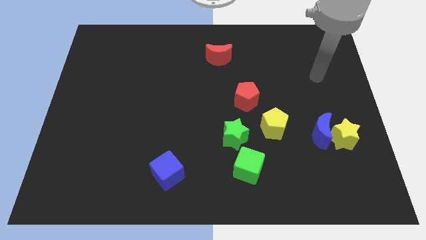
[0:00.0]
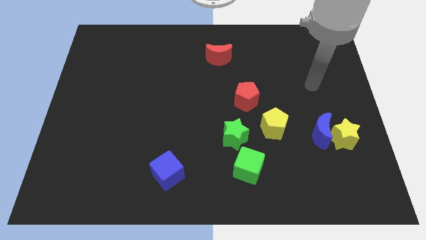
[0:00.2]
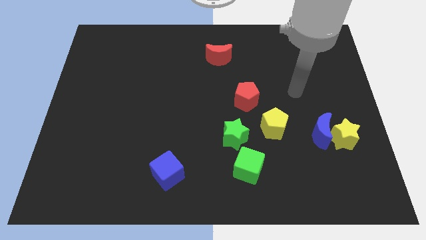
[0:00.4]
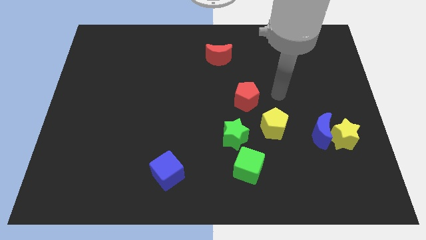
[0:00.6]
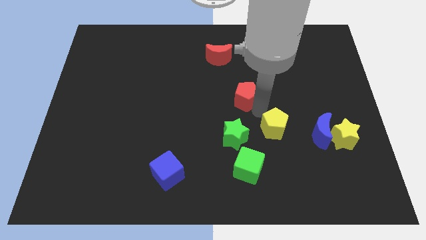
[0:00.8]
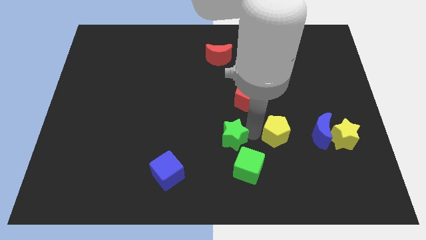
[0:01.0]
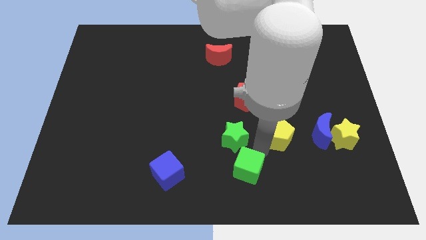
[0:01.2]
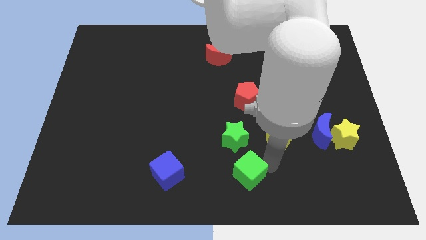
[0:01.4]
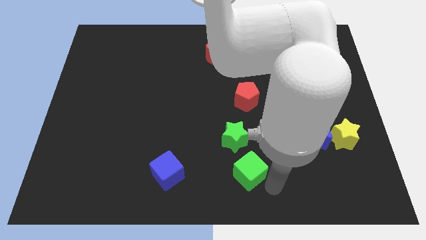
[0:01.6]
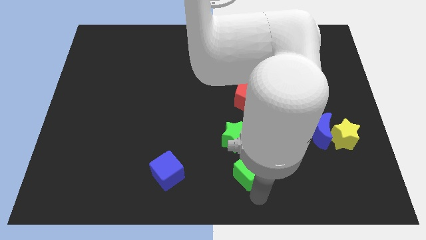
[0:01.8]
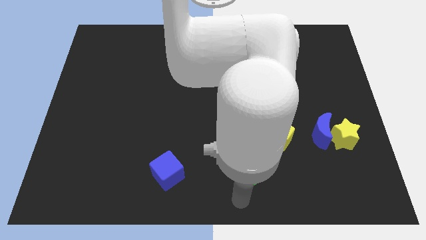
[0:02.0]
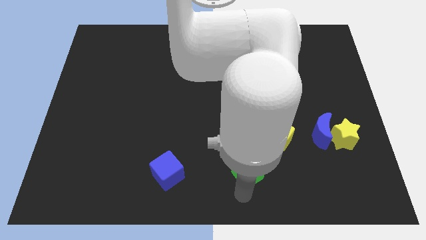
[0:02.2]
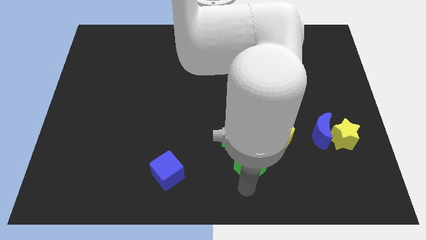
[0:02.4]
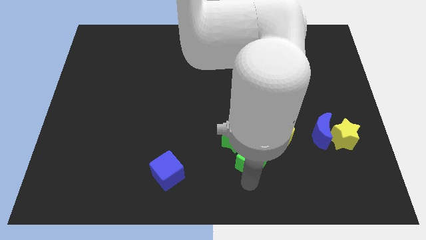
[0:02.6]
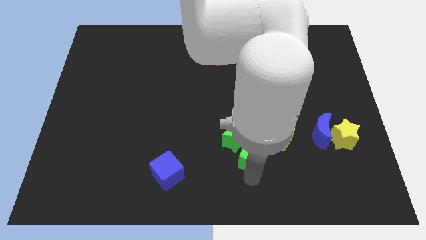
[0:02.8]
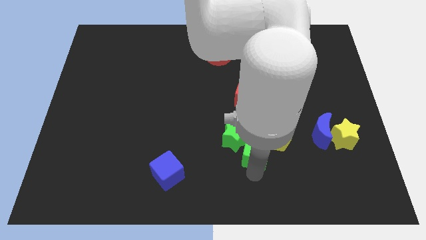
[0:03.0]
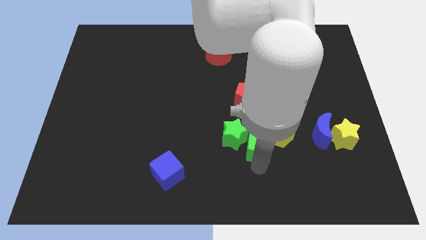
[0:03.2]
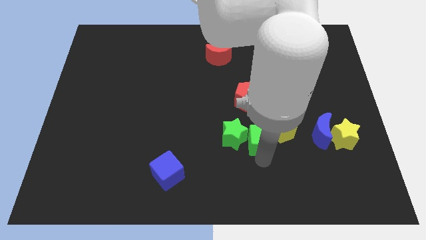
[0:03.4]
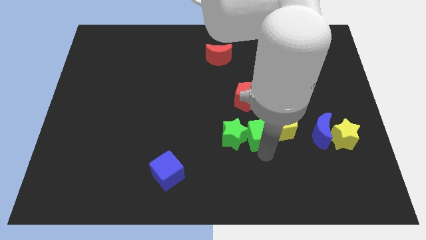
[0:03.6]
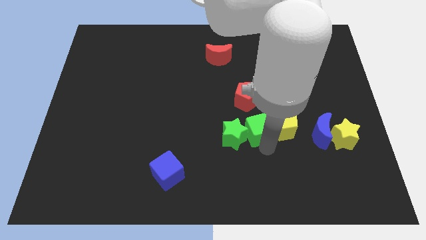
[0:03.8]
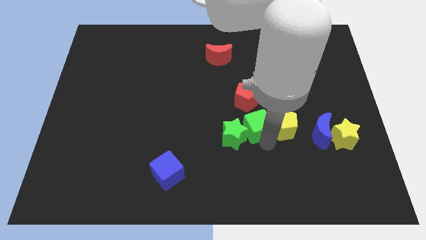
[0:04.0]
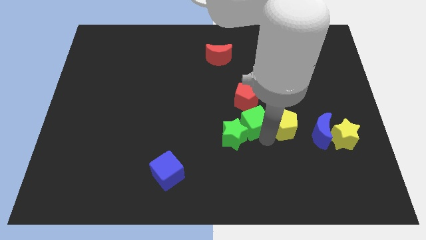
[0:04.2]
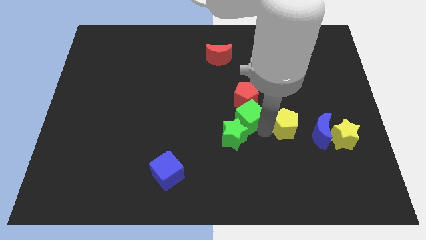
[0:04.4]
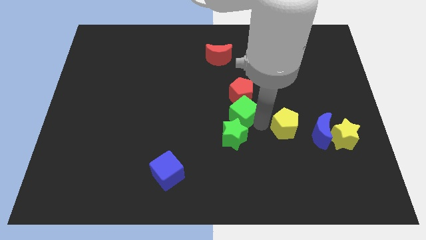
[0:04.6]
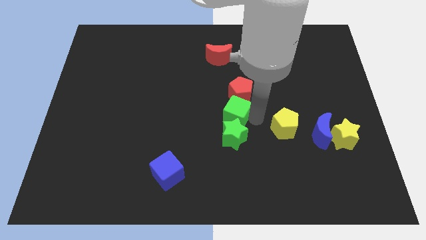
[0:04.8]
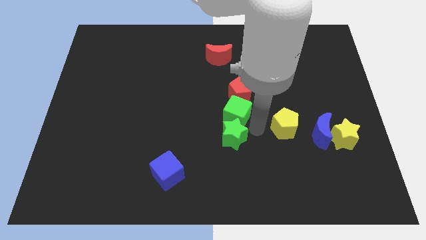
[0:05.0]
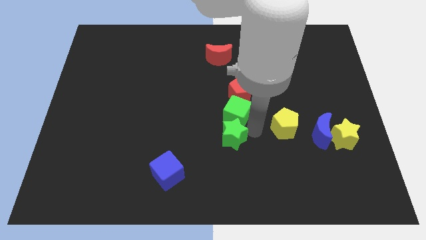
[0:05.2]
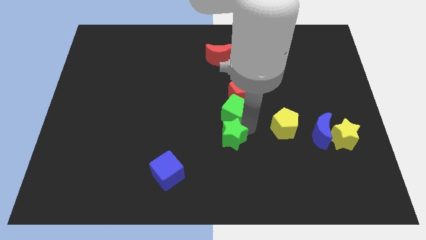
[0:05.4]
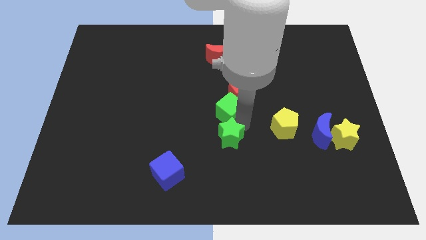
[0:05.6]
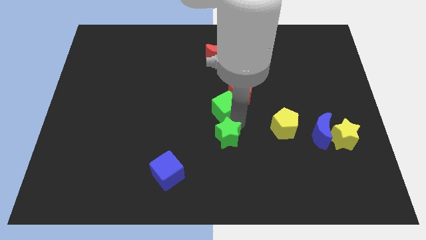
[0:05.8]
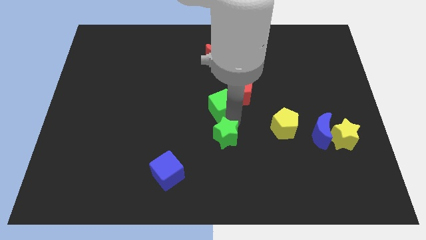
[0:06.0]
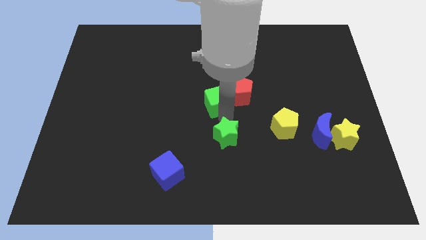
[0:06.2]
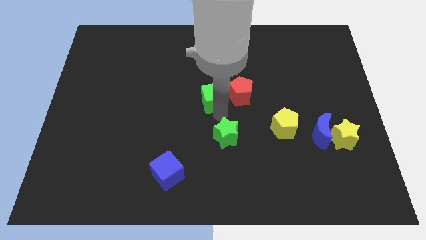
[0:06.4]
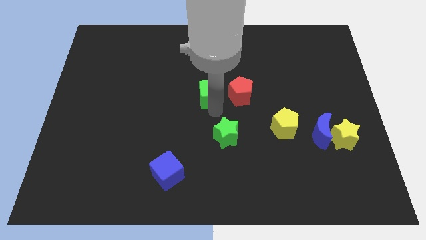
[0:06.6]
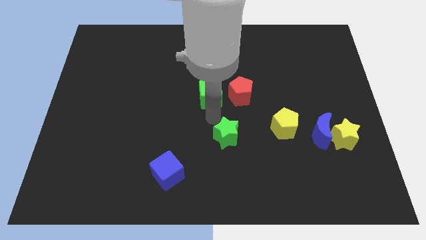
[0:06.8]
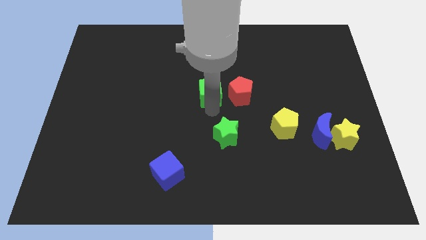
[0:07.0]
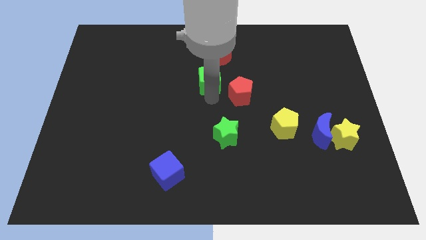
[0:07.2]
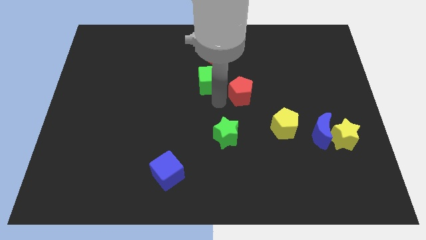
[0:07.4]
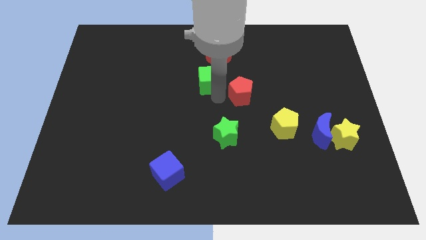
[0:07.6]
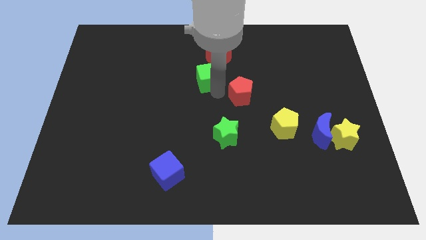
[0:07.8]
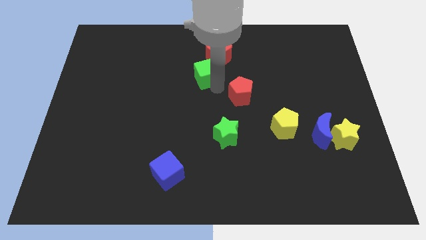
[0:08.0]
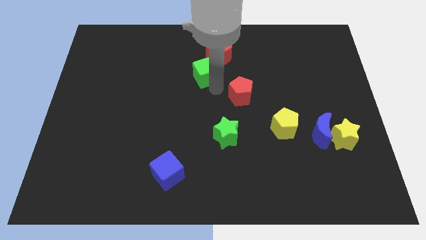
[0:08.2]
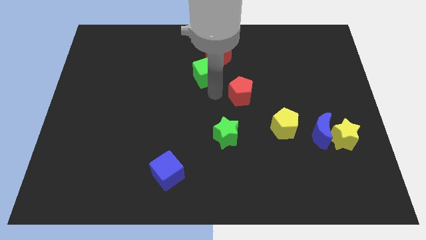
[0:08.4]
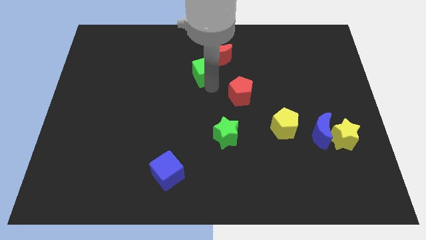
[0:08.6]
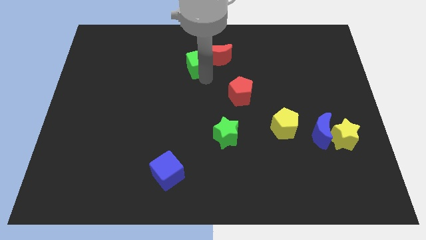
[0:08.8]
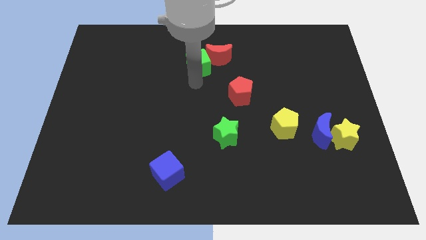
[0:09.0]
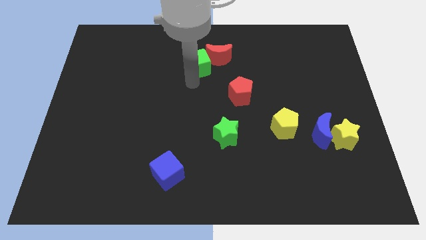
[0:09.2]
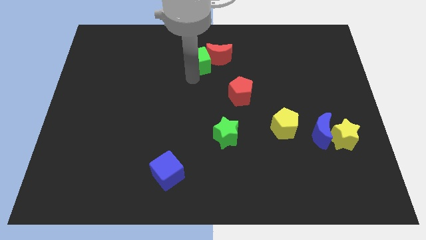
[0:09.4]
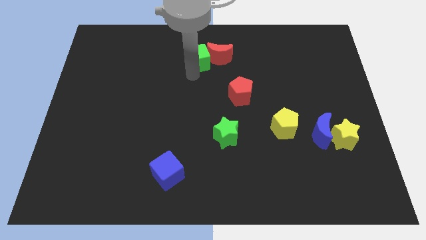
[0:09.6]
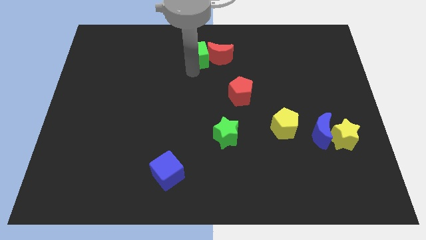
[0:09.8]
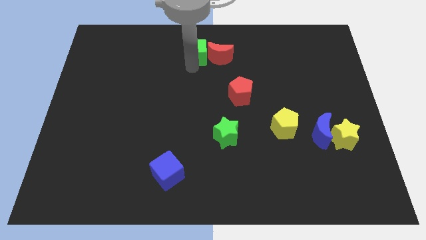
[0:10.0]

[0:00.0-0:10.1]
push the green cube to the towards your base

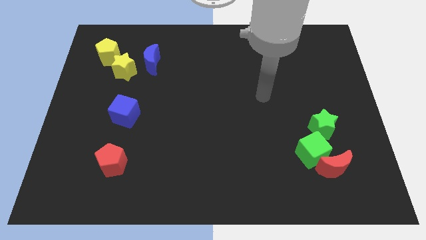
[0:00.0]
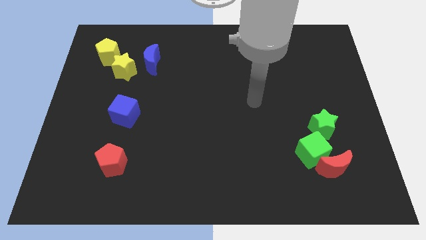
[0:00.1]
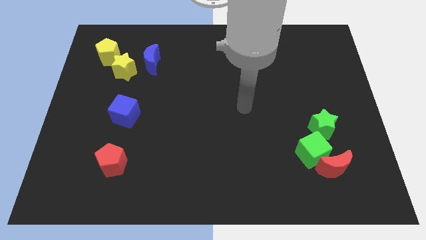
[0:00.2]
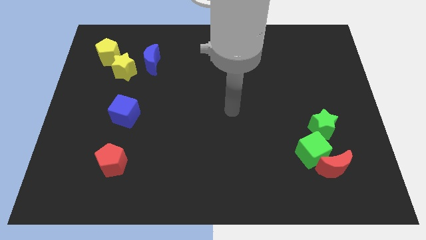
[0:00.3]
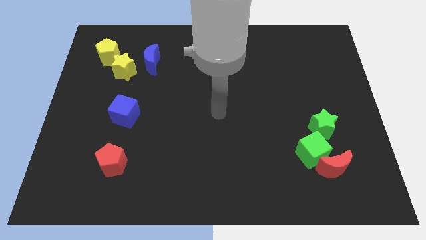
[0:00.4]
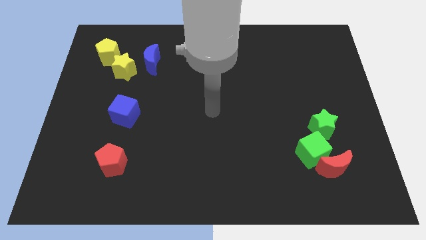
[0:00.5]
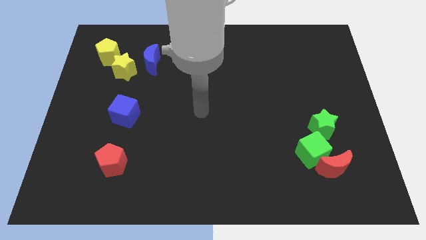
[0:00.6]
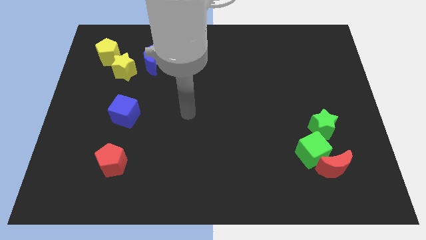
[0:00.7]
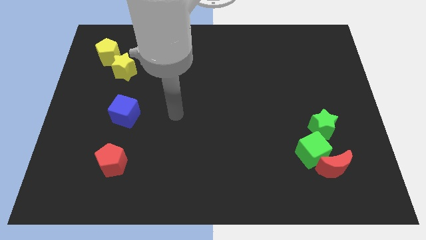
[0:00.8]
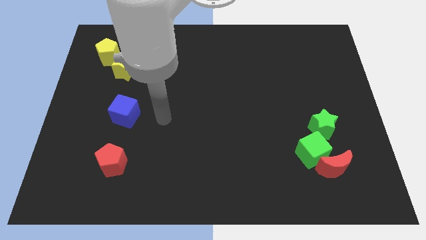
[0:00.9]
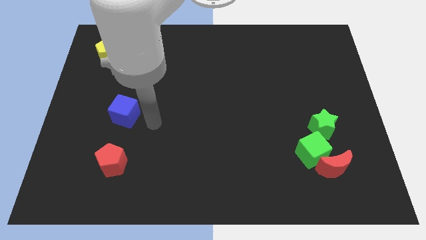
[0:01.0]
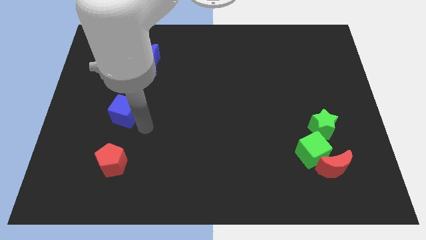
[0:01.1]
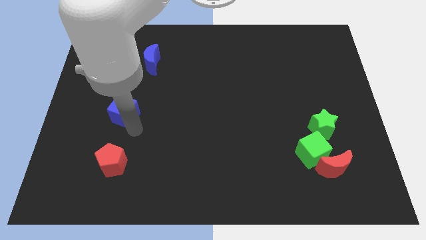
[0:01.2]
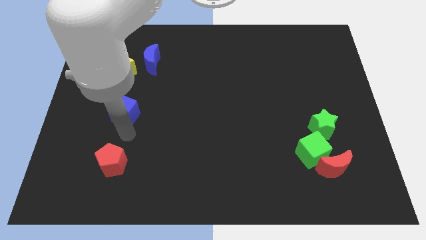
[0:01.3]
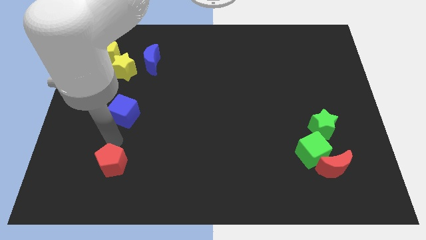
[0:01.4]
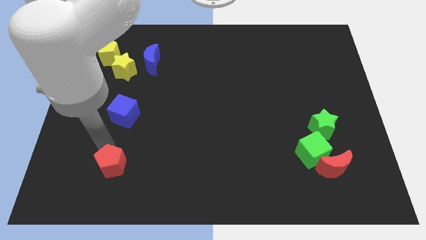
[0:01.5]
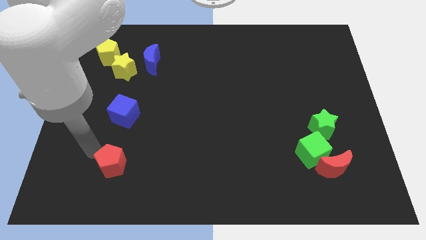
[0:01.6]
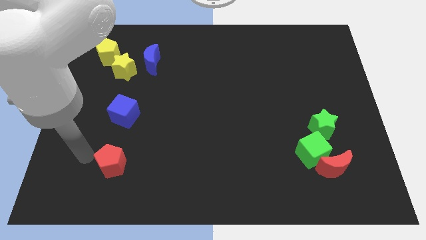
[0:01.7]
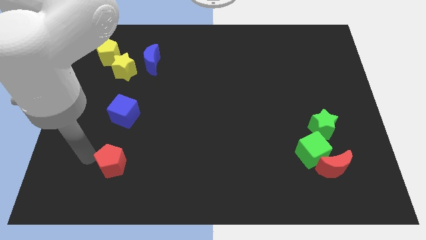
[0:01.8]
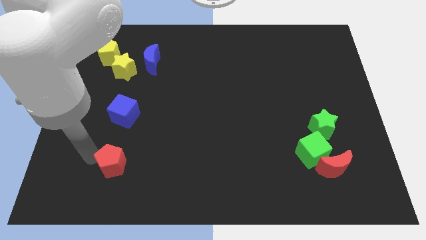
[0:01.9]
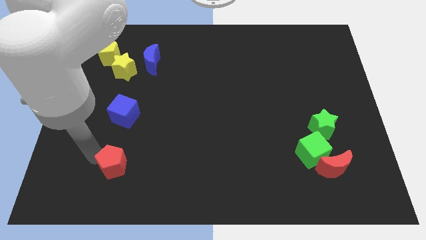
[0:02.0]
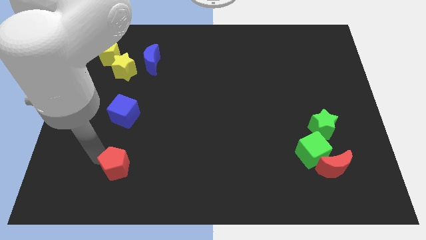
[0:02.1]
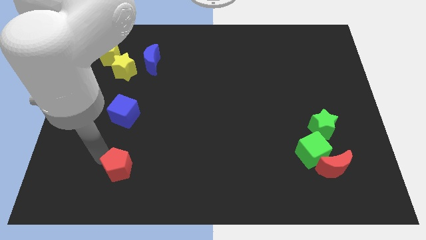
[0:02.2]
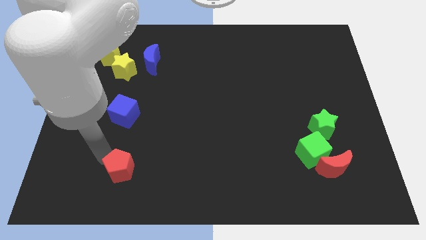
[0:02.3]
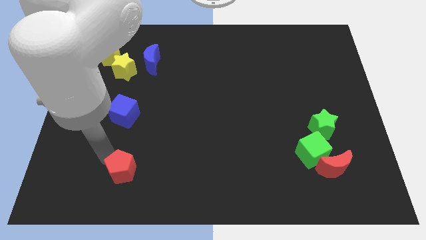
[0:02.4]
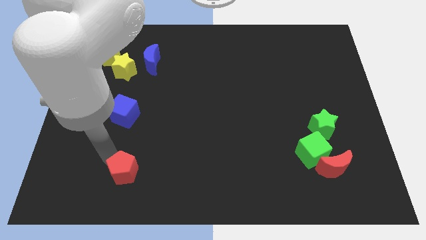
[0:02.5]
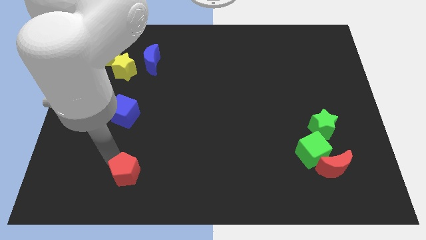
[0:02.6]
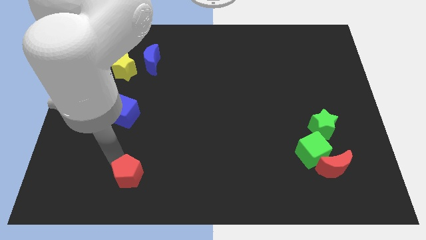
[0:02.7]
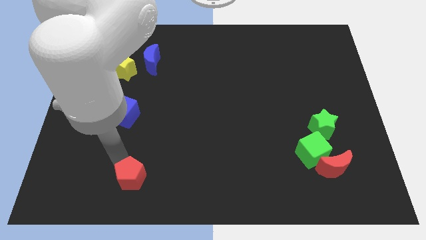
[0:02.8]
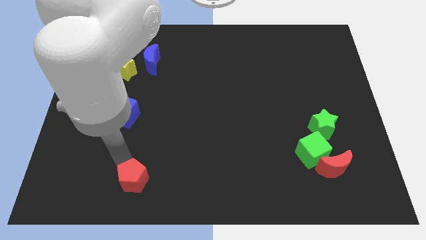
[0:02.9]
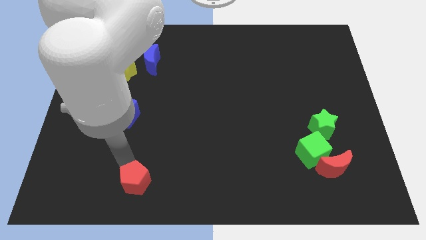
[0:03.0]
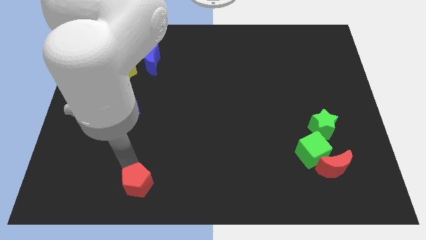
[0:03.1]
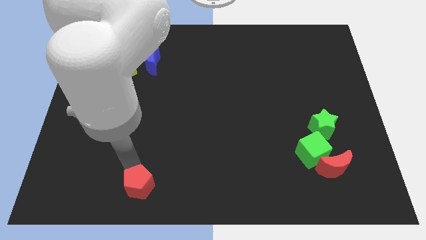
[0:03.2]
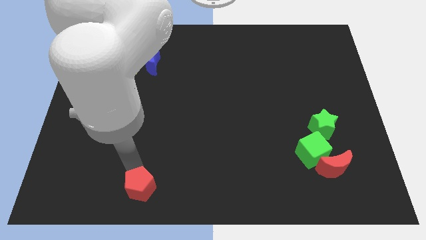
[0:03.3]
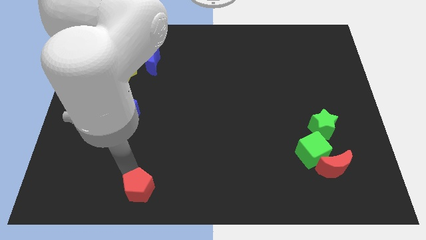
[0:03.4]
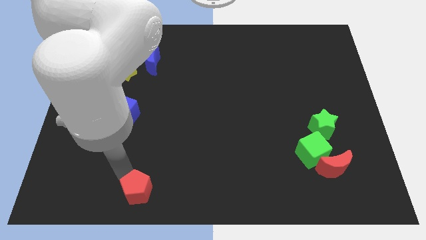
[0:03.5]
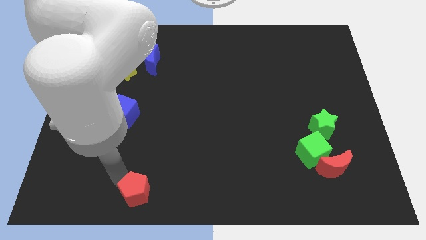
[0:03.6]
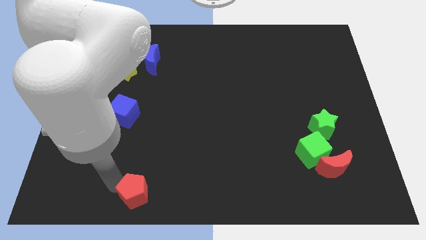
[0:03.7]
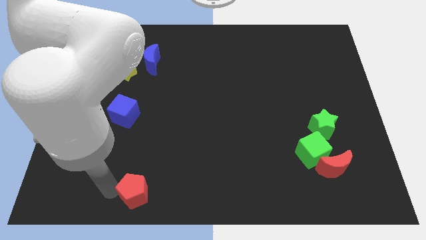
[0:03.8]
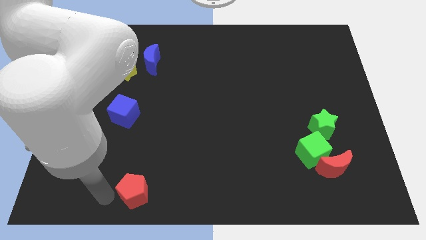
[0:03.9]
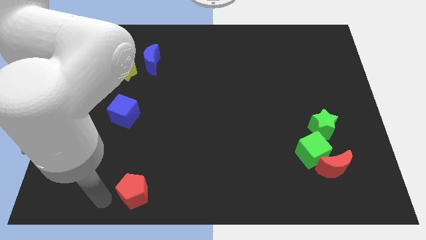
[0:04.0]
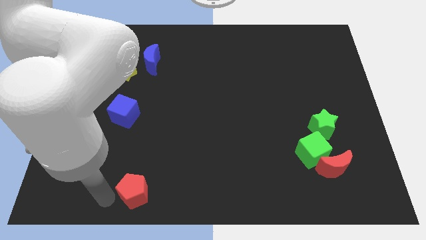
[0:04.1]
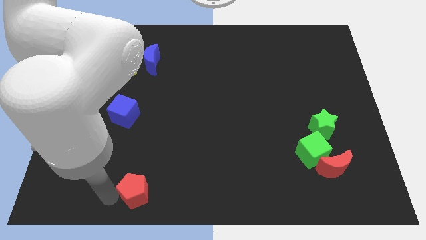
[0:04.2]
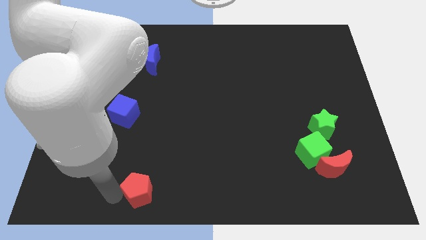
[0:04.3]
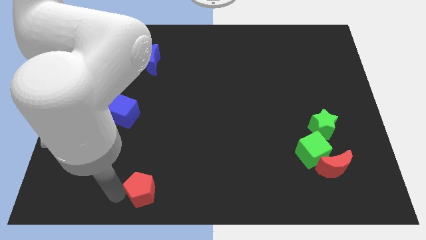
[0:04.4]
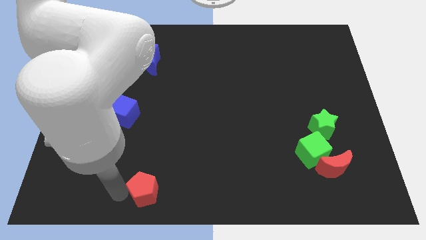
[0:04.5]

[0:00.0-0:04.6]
put the red pentagon to the bottom side
